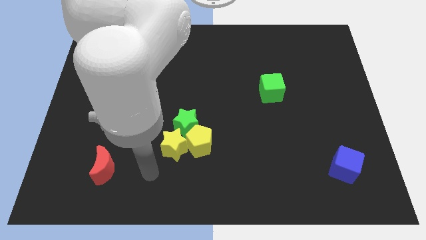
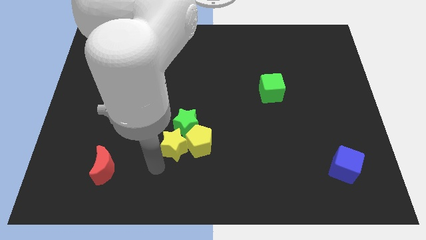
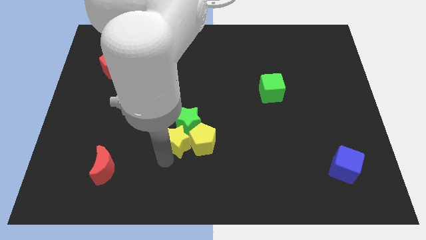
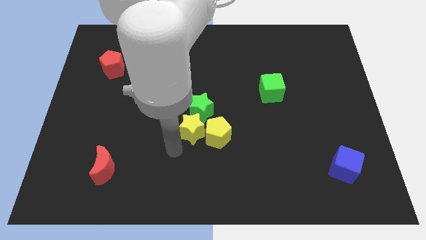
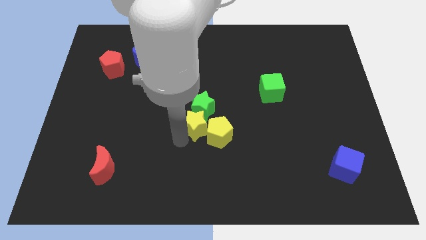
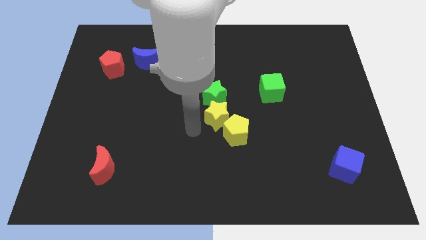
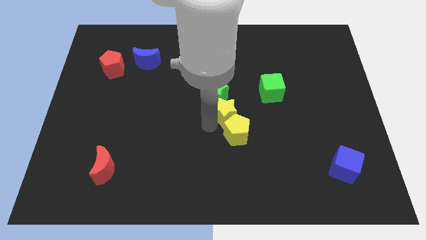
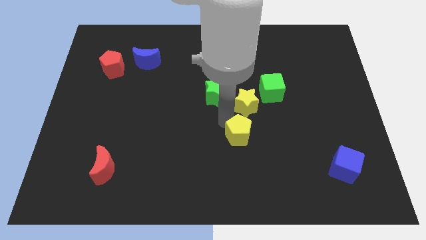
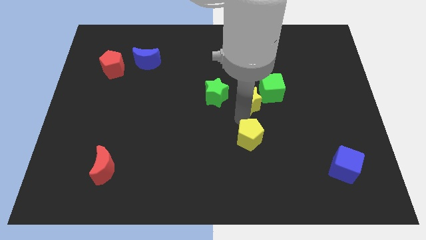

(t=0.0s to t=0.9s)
pull the yellow pentagon apart from the green star and yellow star

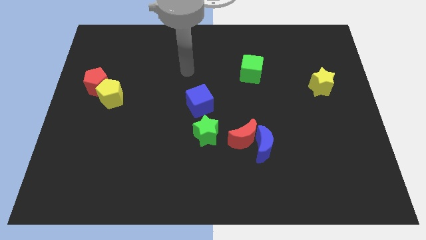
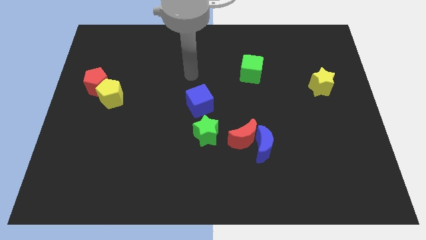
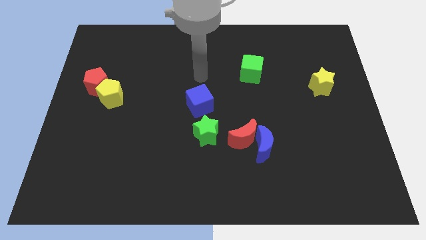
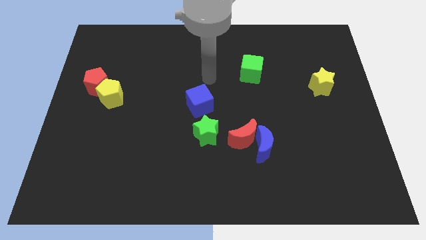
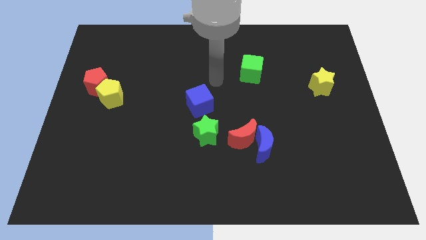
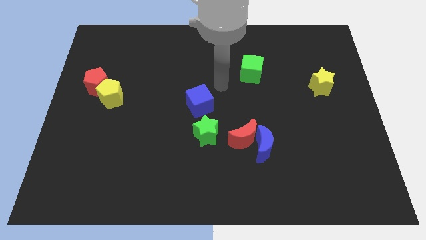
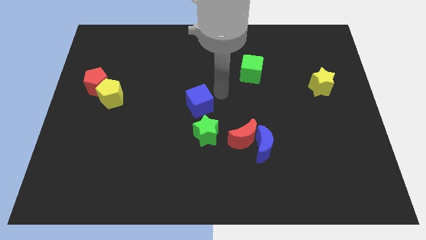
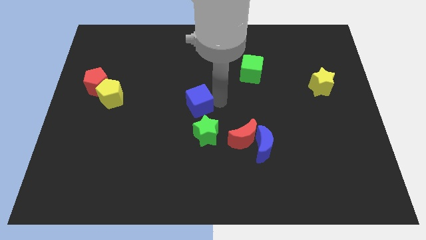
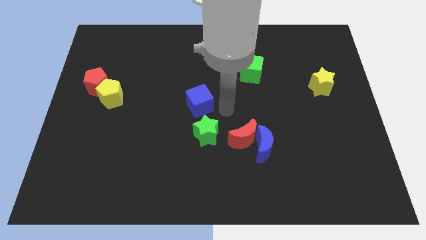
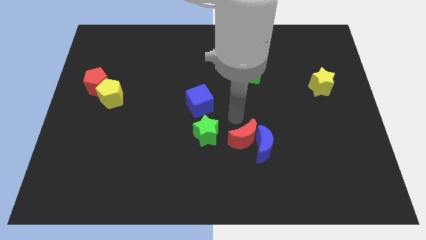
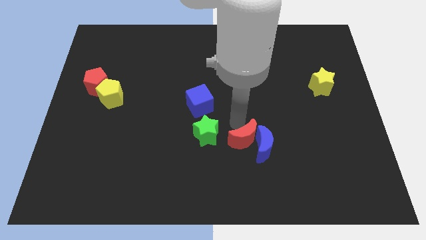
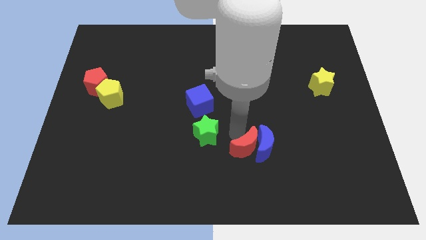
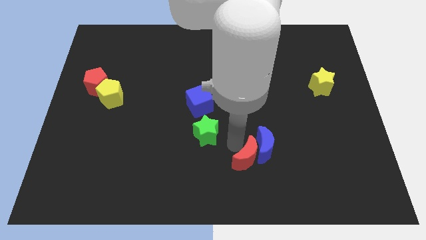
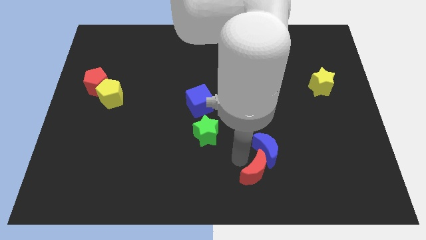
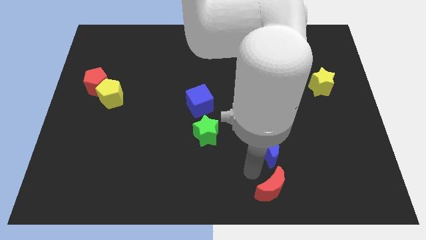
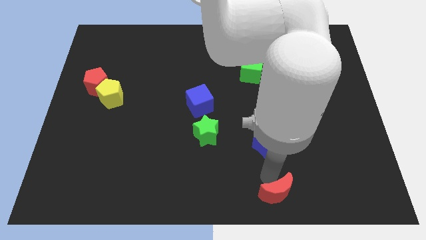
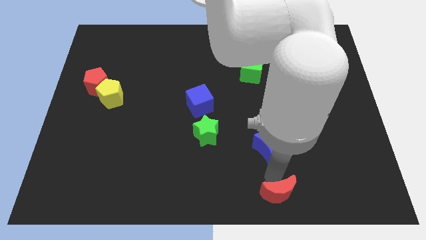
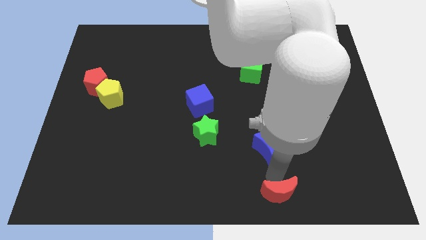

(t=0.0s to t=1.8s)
separate the blue moon from the red moon

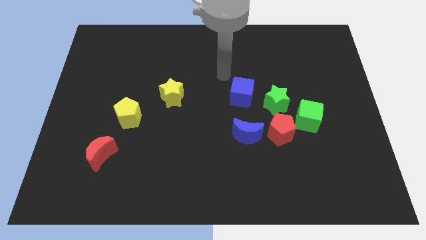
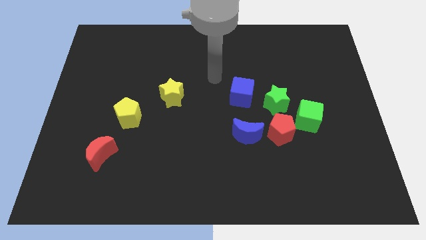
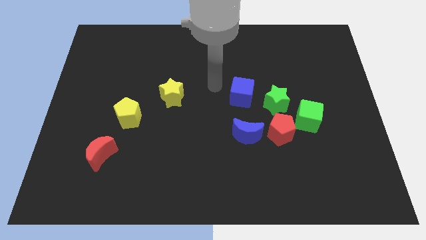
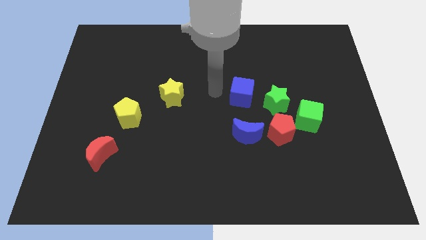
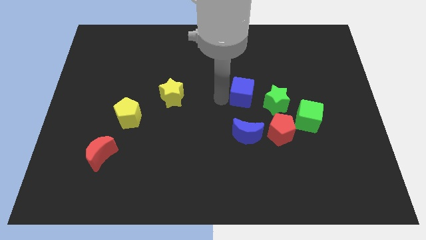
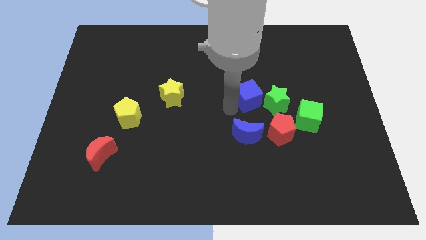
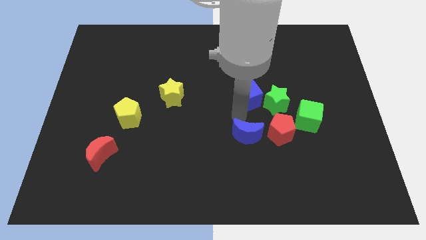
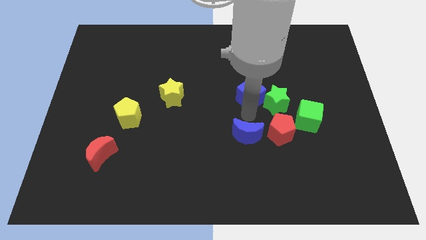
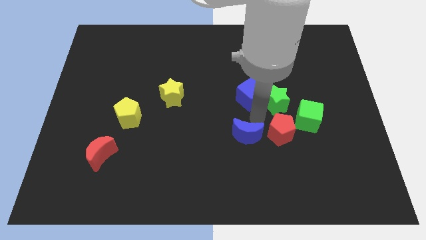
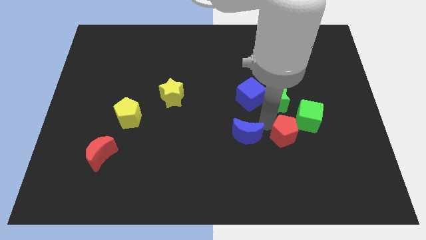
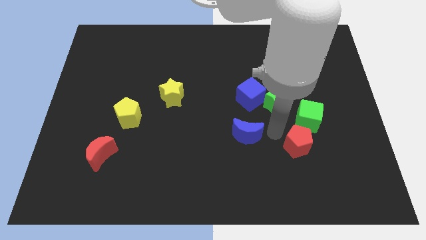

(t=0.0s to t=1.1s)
pull the blue moon apart from the red pentagon

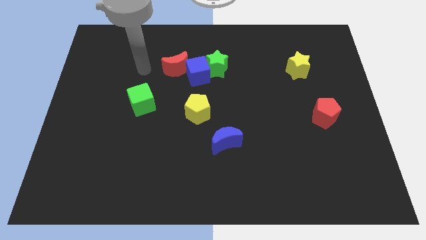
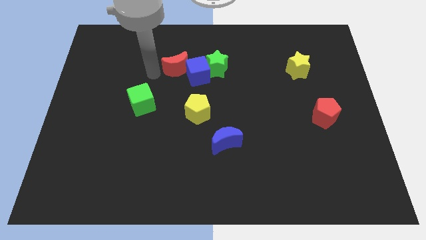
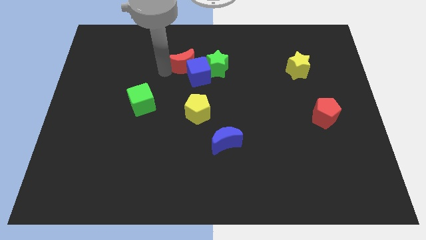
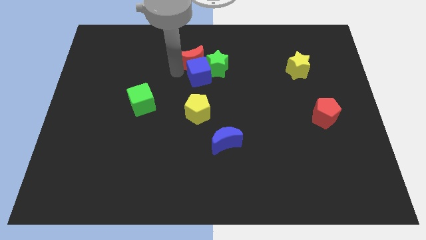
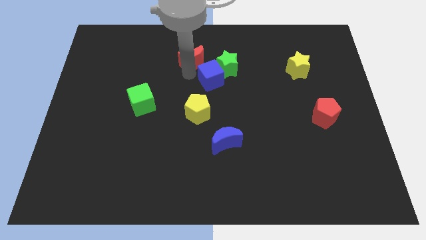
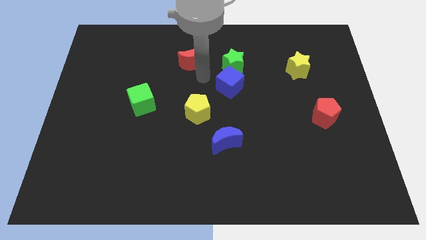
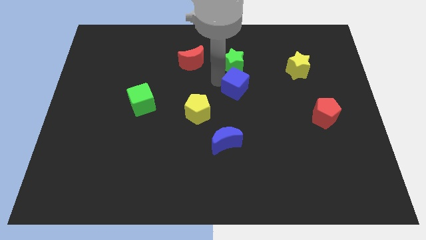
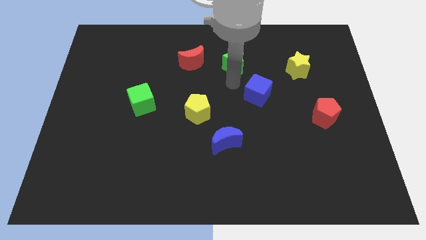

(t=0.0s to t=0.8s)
separate the green star from the blue cube

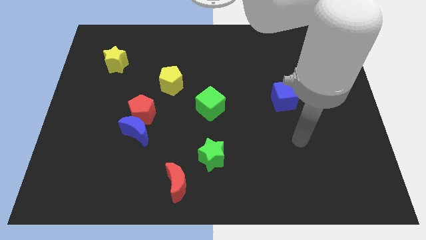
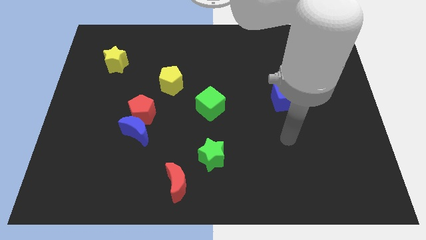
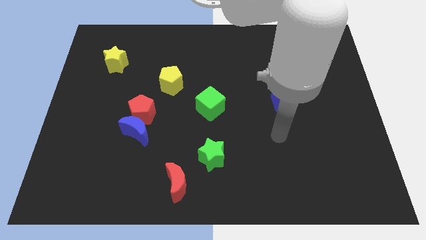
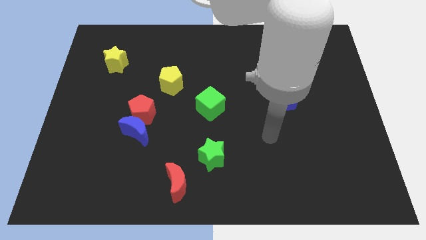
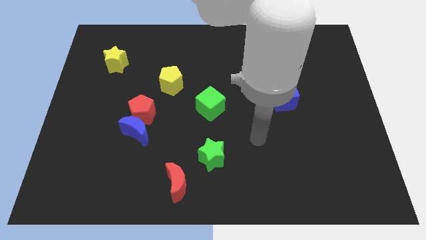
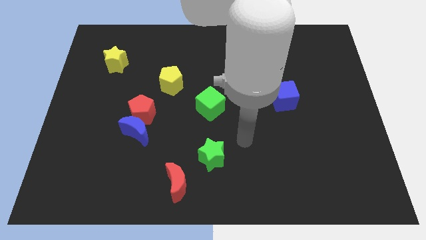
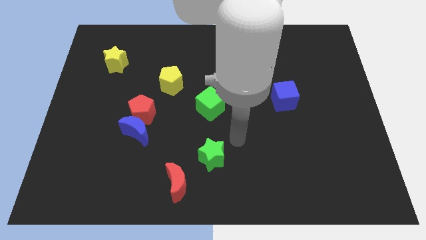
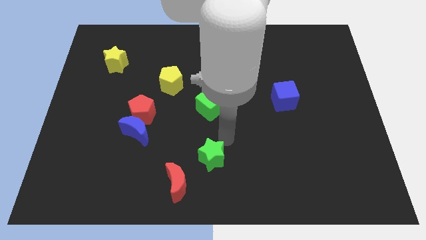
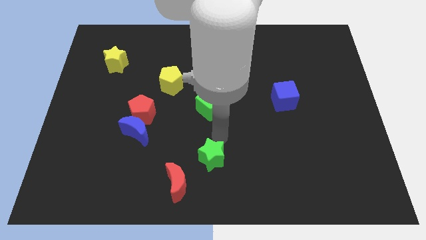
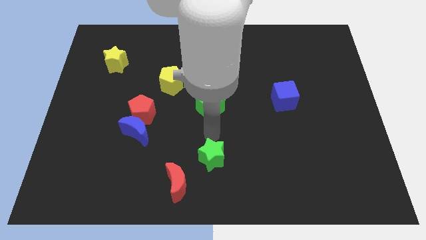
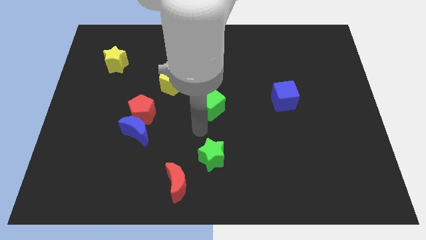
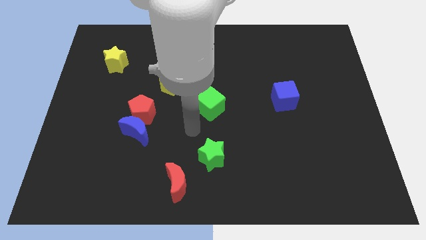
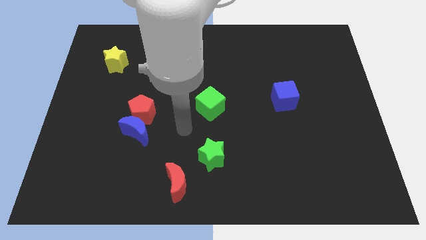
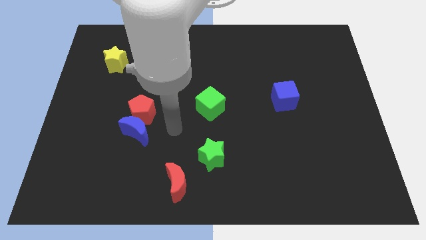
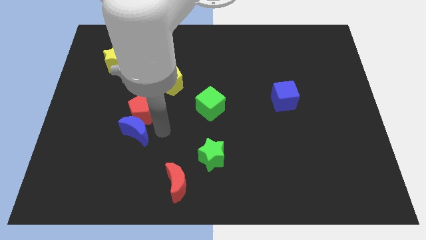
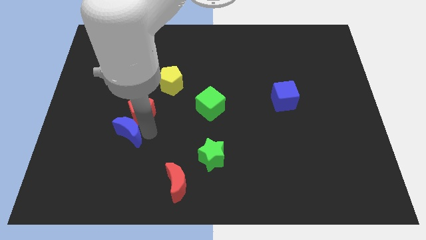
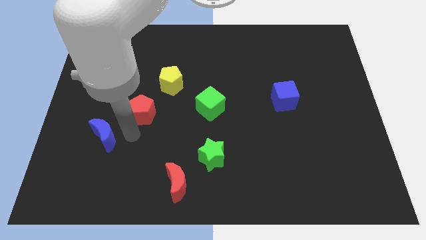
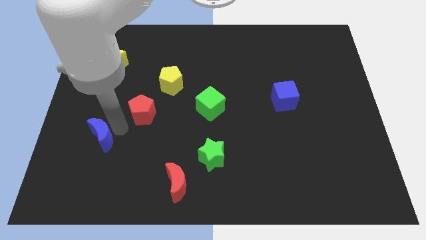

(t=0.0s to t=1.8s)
pull the red pentagon apart from the blue moon

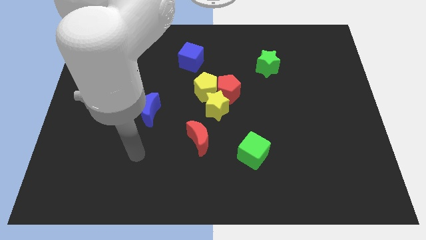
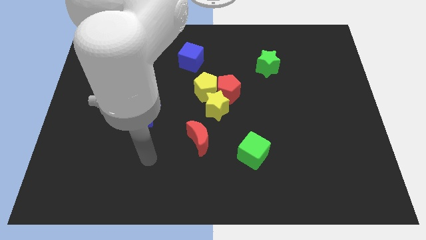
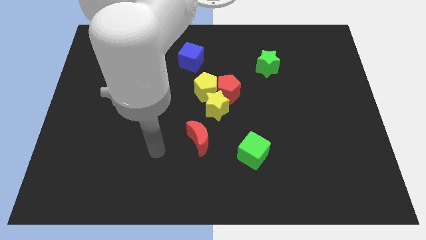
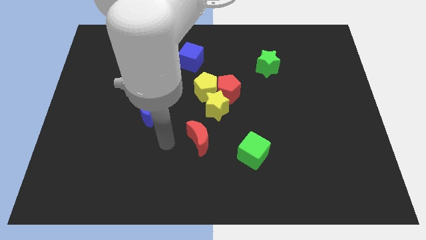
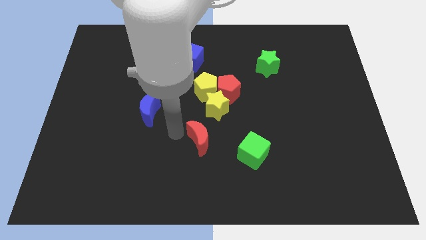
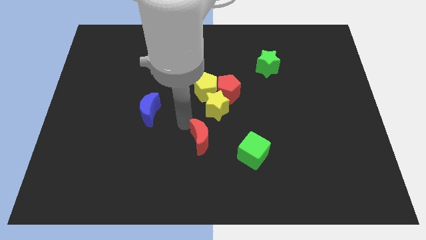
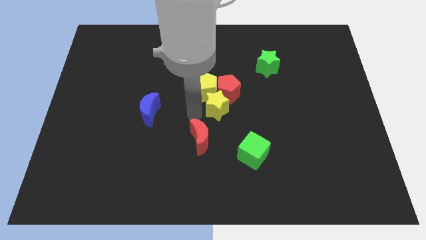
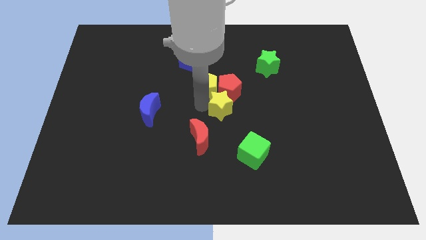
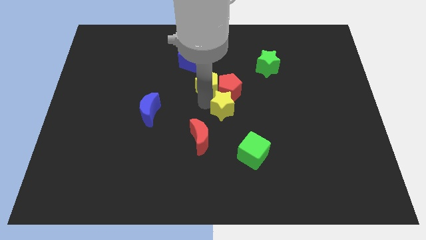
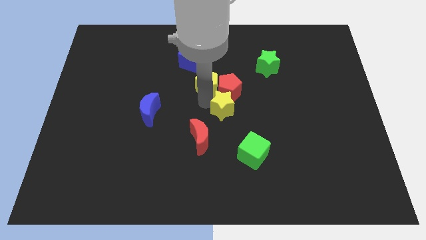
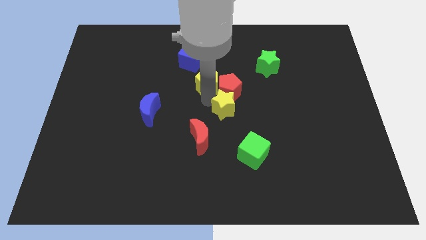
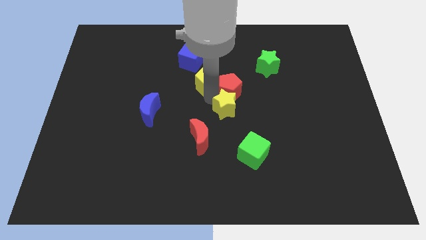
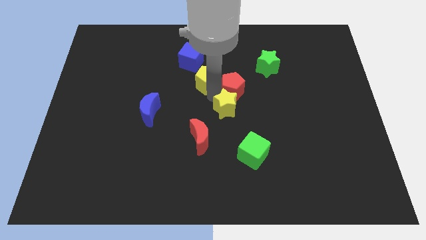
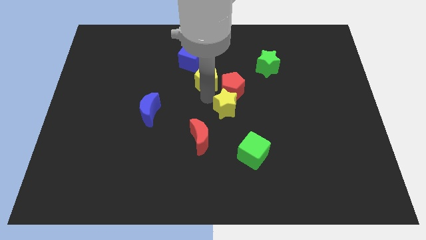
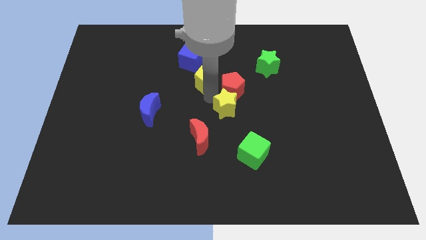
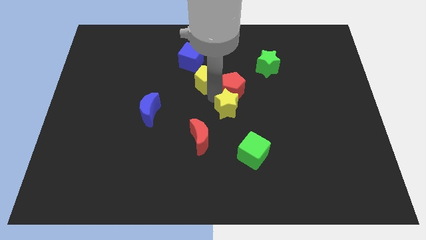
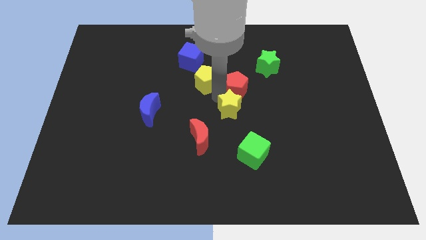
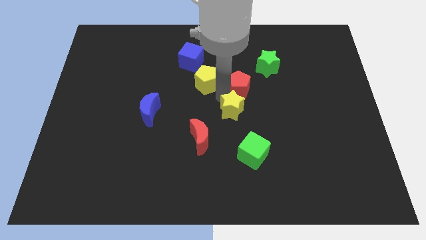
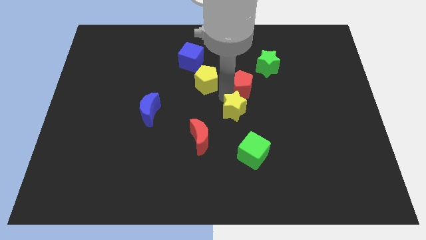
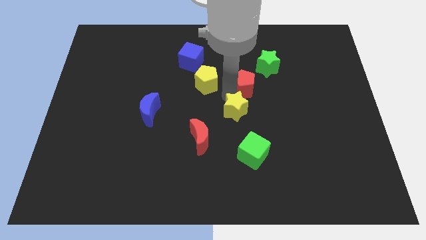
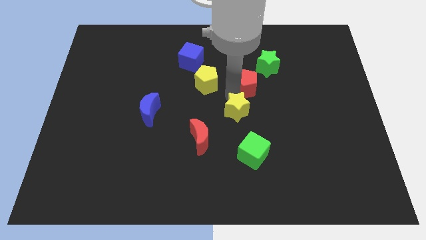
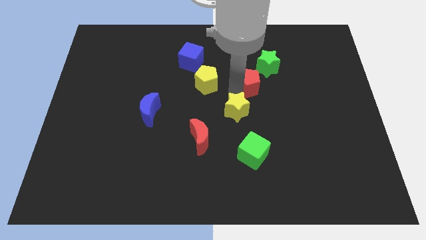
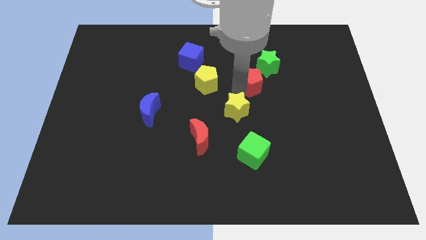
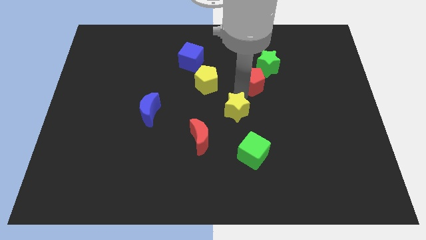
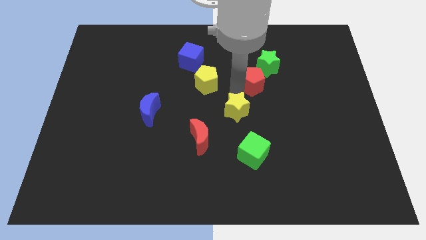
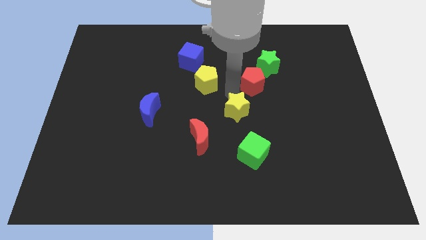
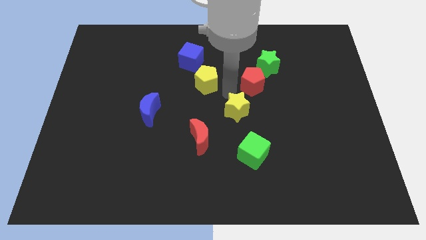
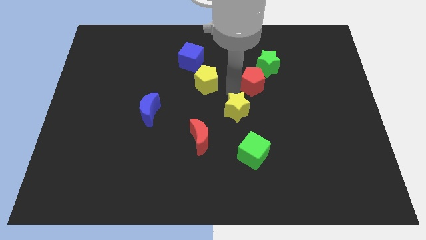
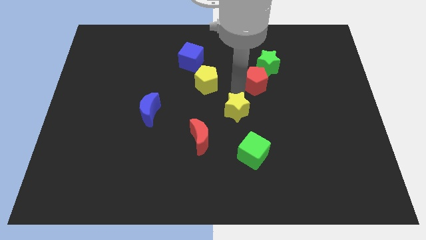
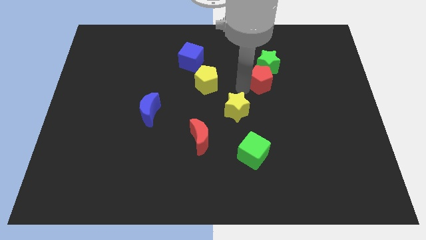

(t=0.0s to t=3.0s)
pull the red pentagon apart from the yellow pentagon and yellow star
